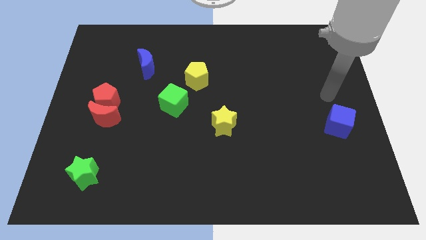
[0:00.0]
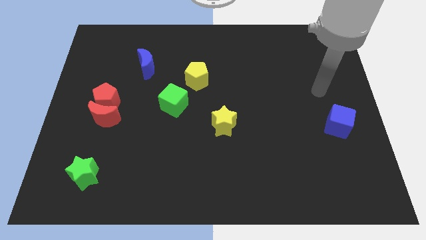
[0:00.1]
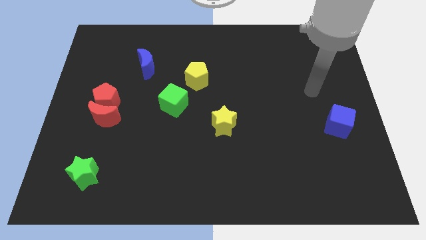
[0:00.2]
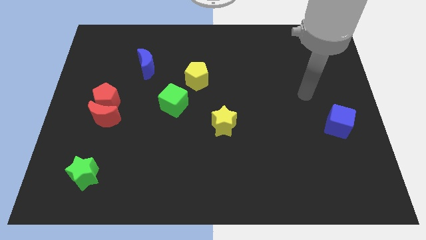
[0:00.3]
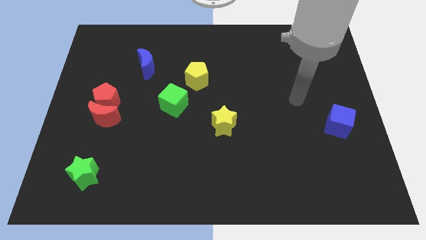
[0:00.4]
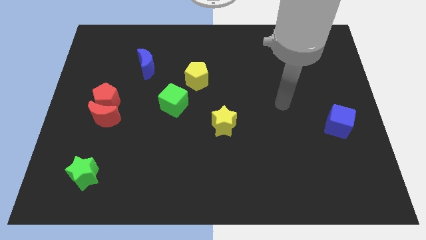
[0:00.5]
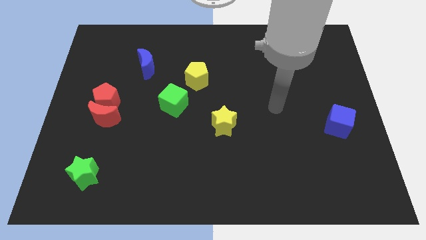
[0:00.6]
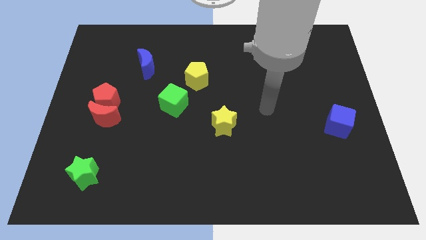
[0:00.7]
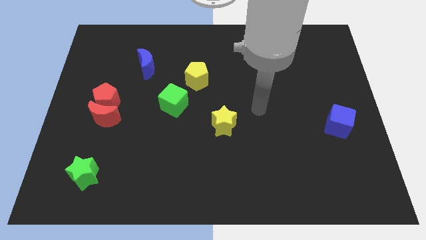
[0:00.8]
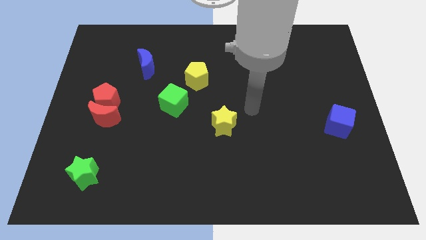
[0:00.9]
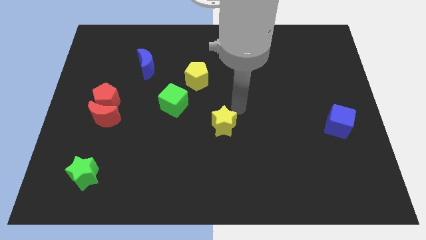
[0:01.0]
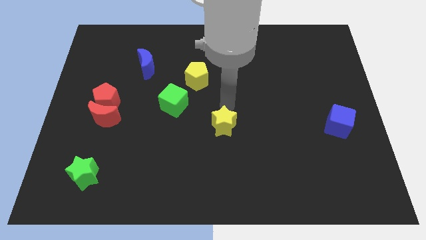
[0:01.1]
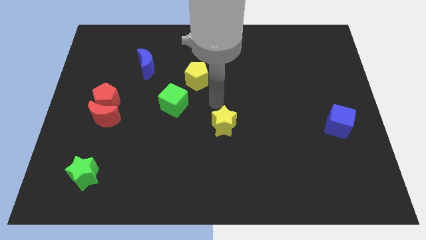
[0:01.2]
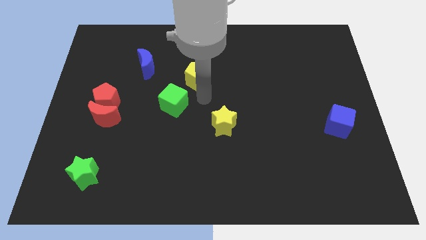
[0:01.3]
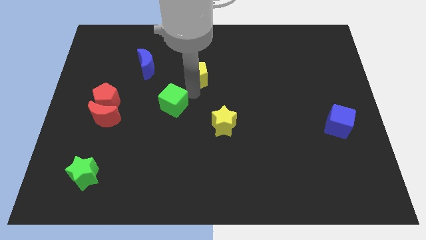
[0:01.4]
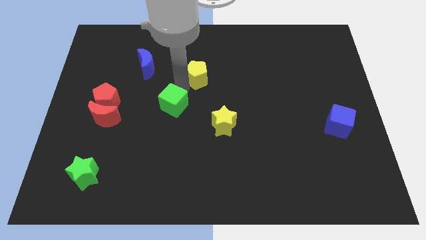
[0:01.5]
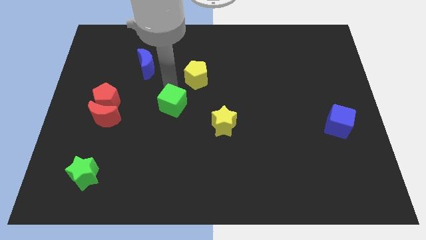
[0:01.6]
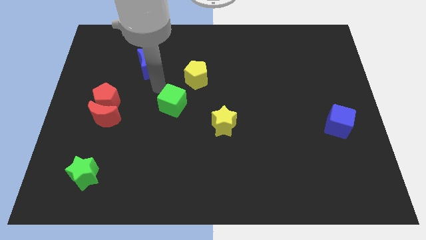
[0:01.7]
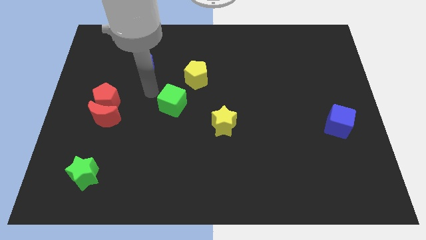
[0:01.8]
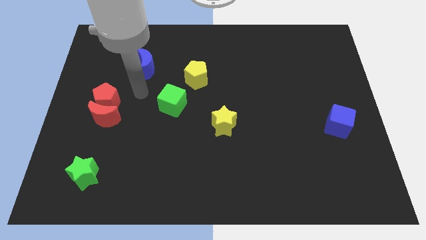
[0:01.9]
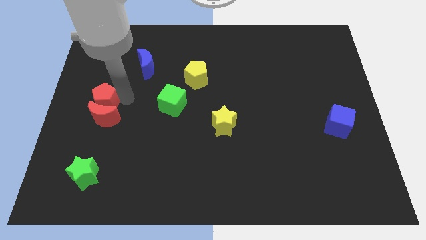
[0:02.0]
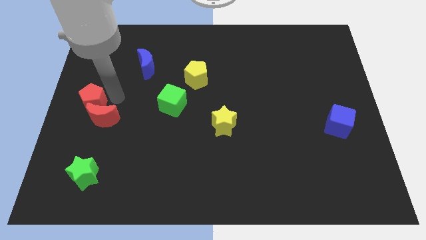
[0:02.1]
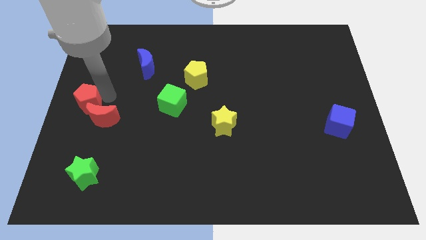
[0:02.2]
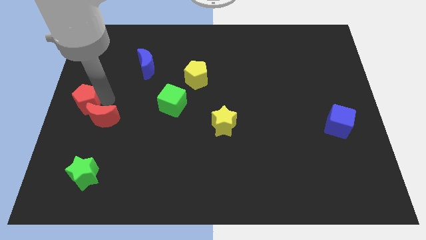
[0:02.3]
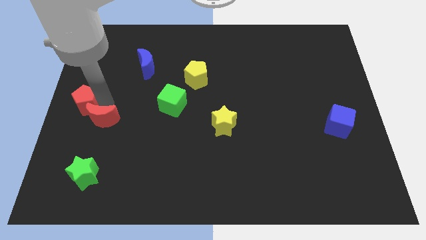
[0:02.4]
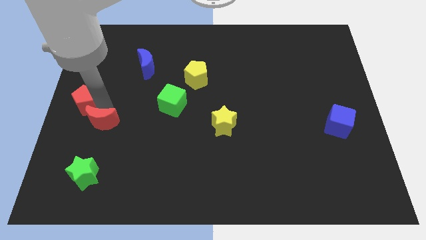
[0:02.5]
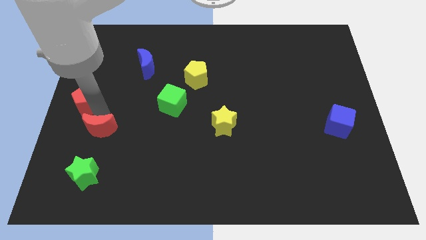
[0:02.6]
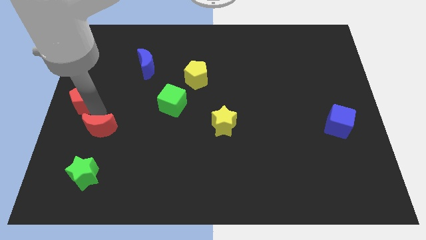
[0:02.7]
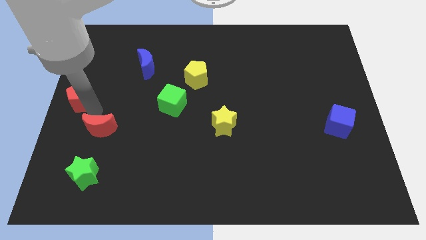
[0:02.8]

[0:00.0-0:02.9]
pull the red moon apart from the red pentagon

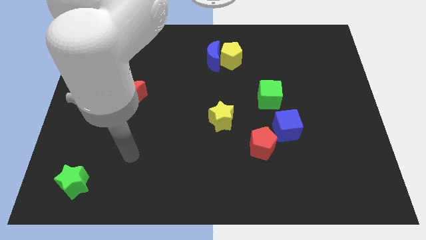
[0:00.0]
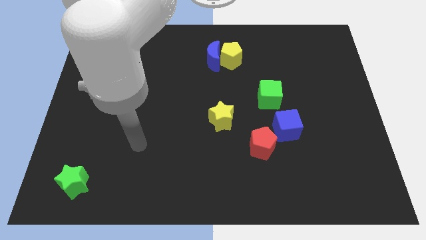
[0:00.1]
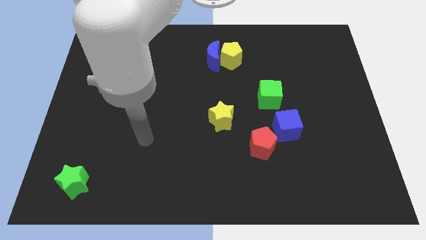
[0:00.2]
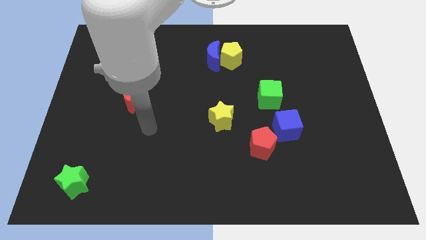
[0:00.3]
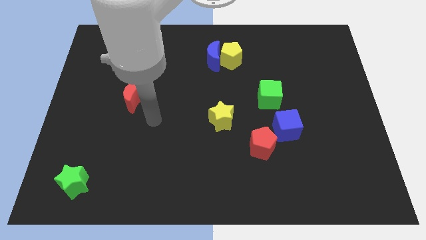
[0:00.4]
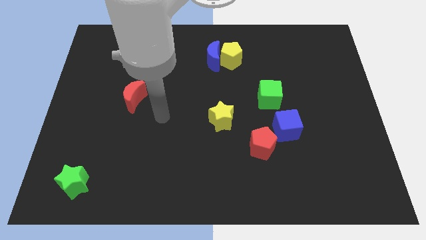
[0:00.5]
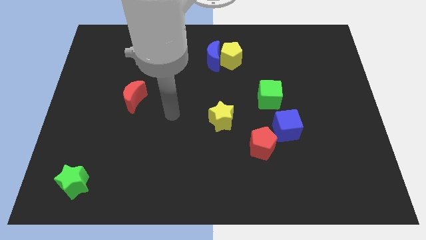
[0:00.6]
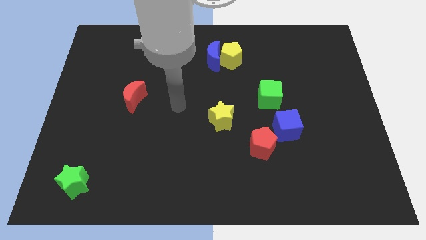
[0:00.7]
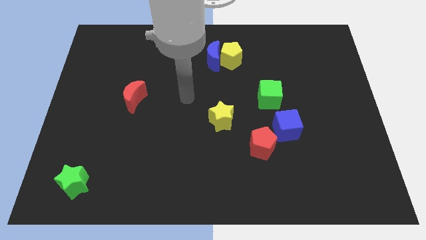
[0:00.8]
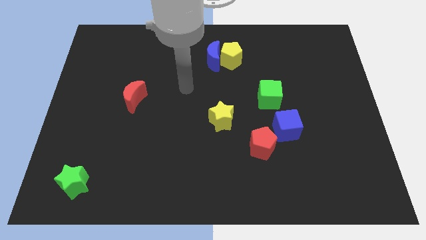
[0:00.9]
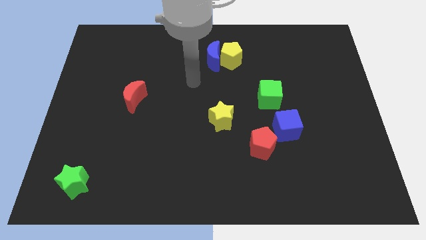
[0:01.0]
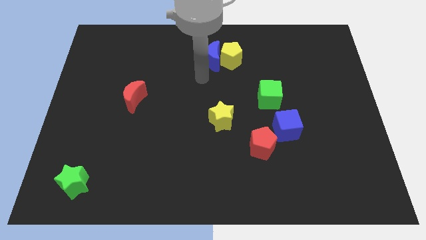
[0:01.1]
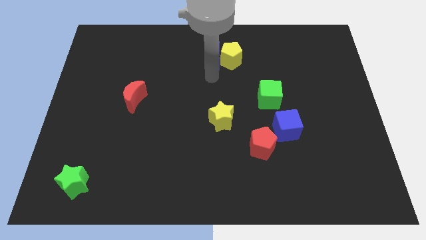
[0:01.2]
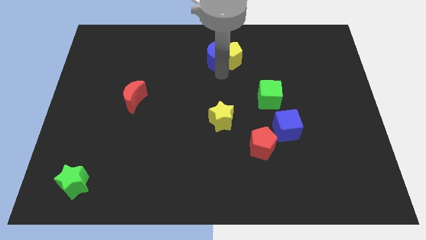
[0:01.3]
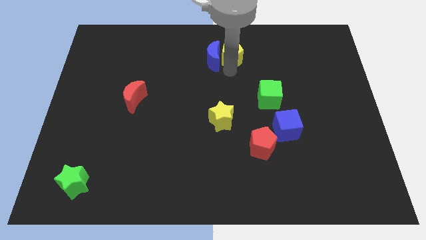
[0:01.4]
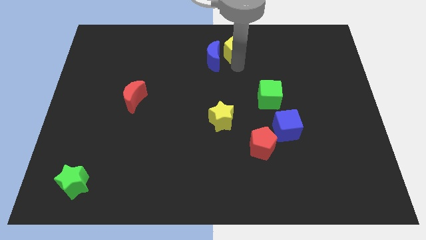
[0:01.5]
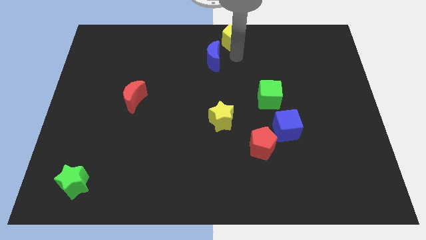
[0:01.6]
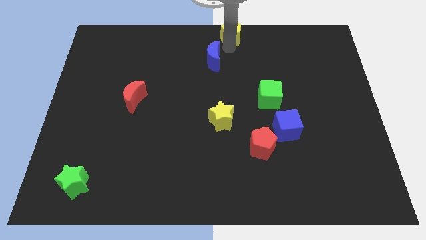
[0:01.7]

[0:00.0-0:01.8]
separate the blue moon from the yellow pentagon

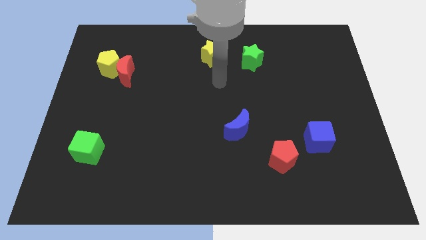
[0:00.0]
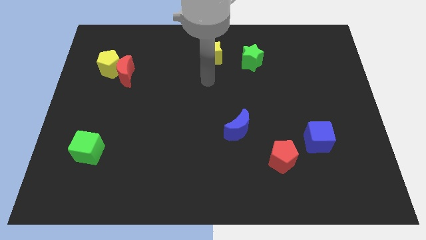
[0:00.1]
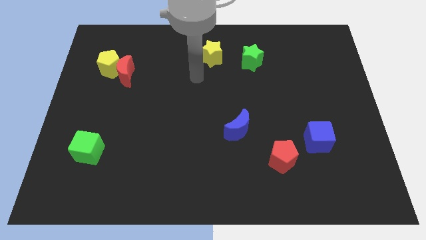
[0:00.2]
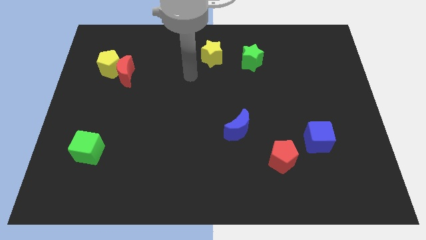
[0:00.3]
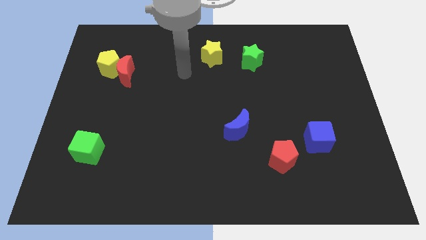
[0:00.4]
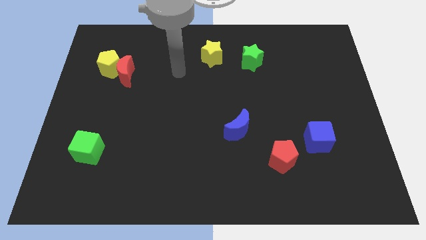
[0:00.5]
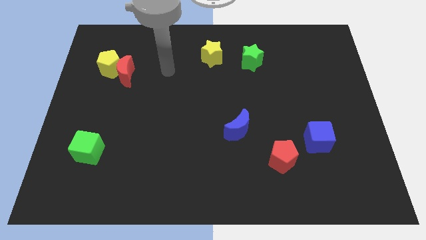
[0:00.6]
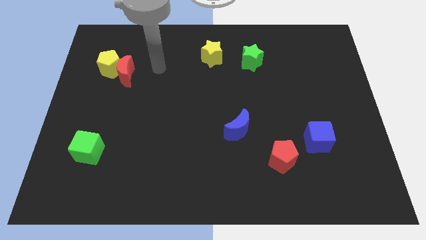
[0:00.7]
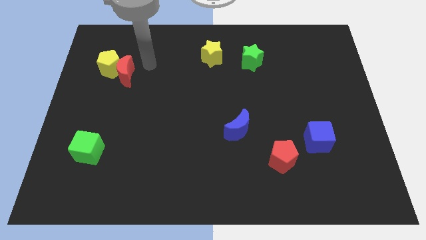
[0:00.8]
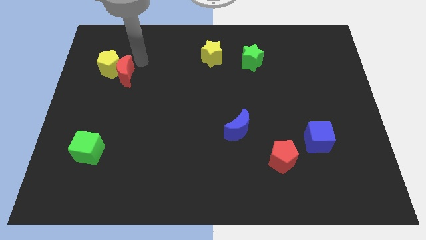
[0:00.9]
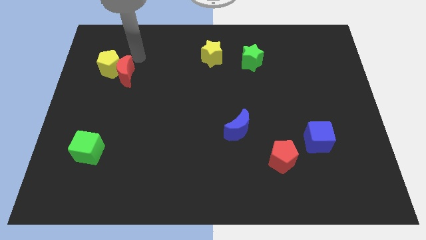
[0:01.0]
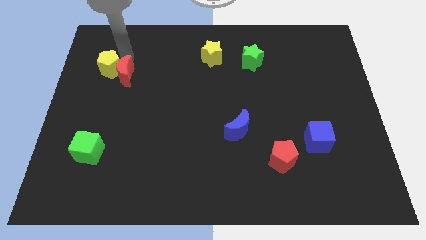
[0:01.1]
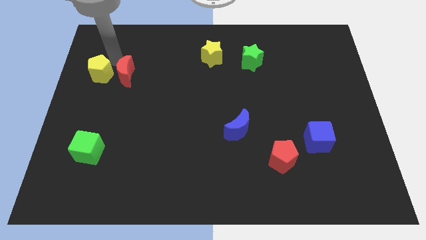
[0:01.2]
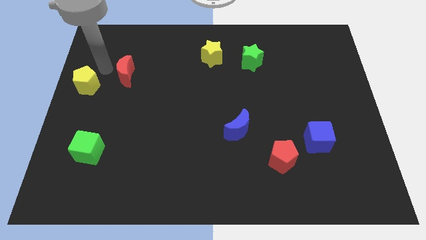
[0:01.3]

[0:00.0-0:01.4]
separate the red moon from the yellow pentagon

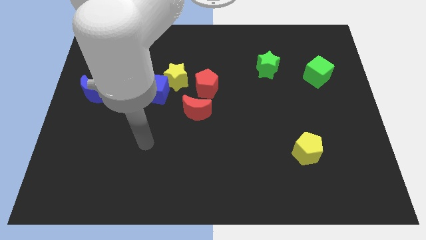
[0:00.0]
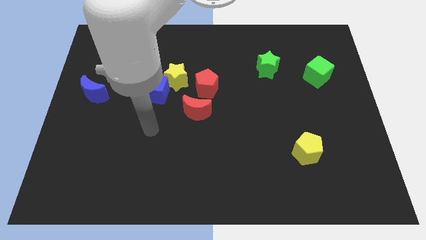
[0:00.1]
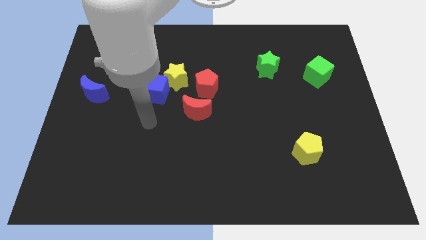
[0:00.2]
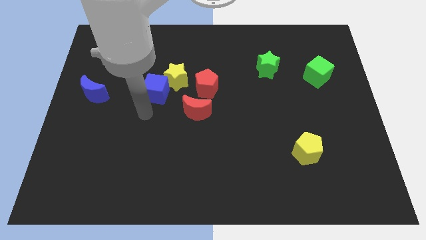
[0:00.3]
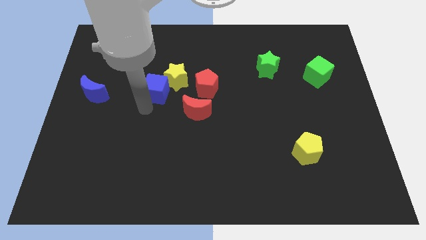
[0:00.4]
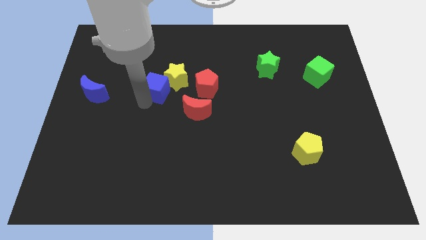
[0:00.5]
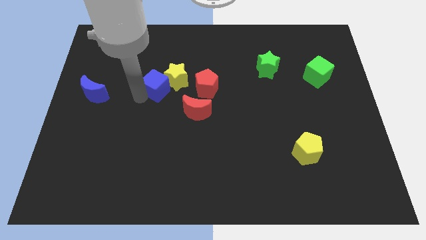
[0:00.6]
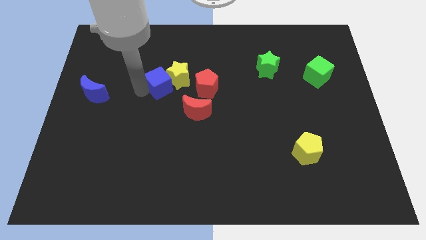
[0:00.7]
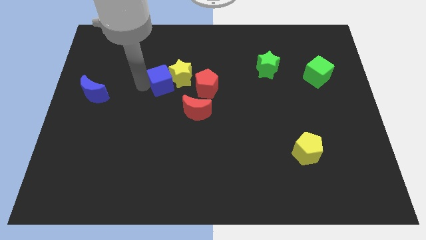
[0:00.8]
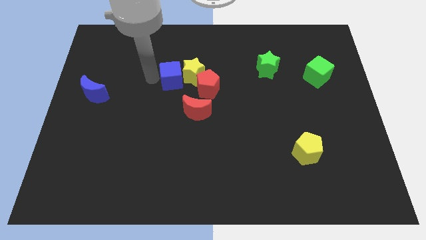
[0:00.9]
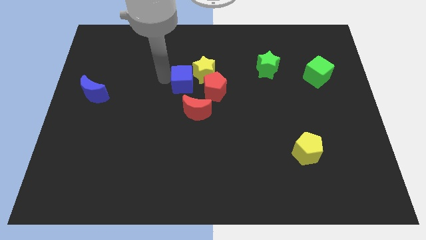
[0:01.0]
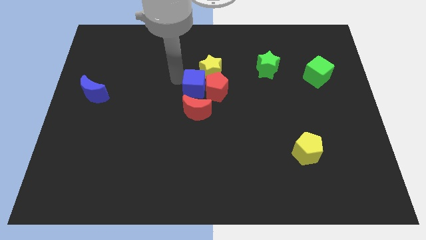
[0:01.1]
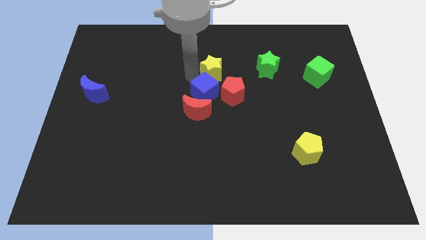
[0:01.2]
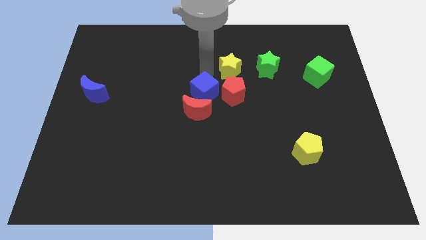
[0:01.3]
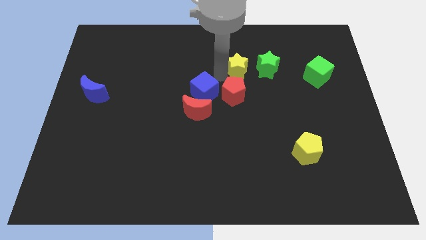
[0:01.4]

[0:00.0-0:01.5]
pull the blue cube apart from the yellow star

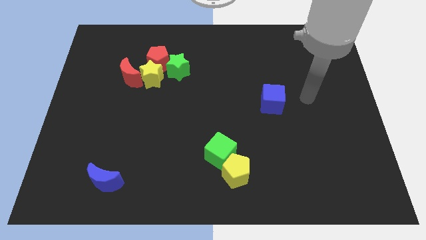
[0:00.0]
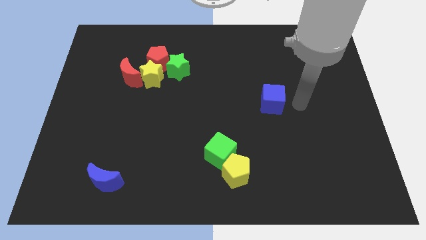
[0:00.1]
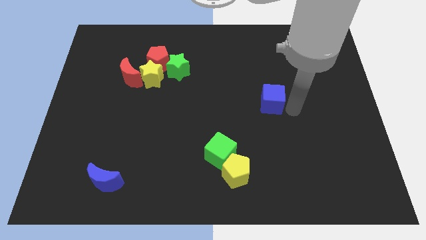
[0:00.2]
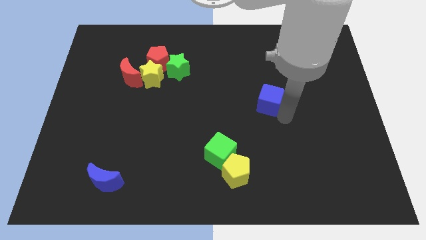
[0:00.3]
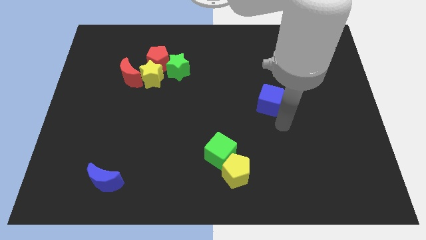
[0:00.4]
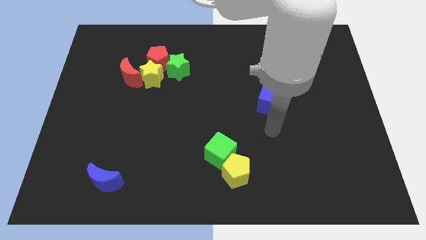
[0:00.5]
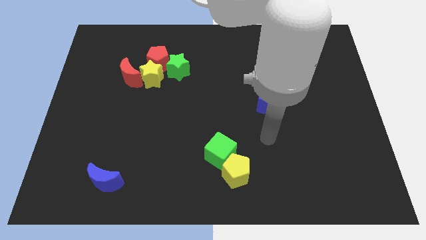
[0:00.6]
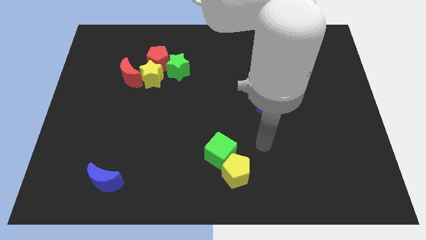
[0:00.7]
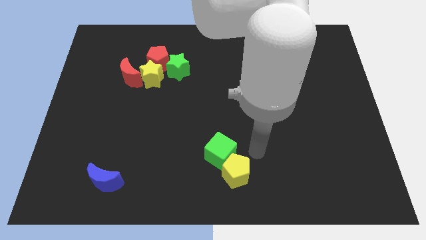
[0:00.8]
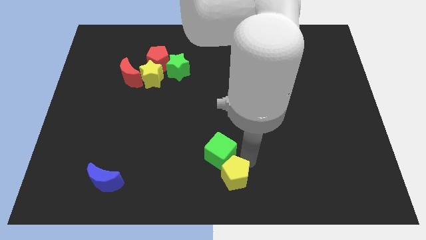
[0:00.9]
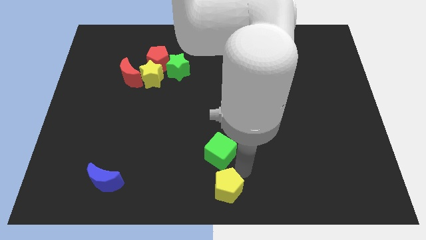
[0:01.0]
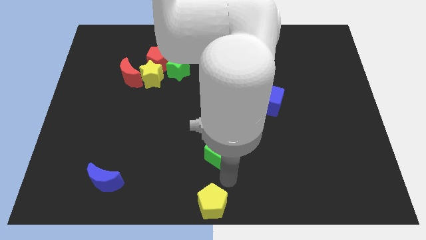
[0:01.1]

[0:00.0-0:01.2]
pull the green cube apart from the yellow pentagon

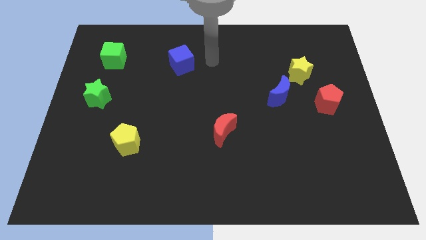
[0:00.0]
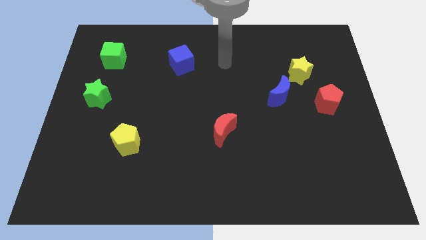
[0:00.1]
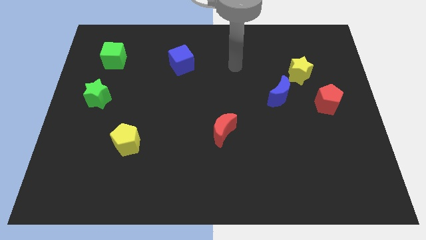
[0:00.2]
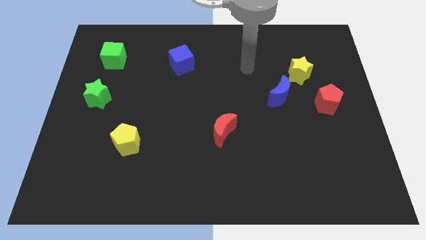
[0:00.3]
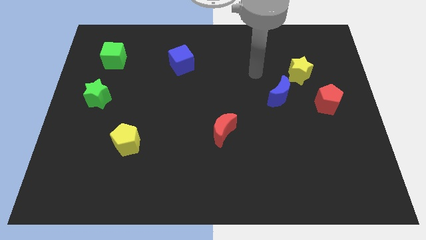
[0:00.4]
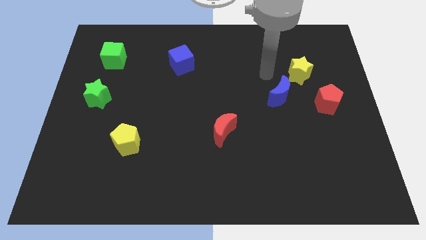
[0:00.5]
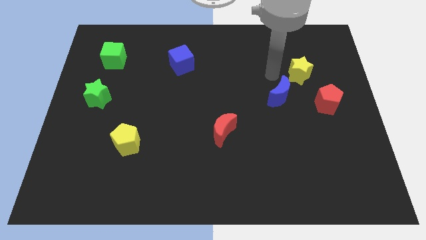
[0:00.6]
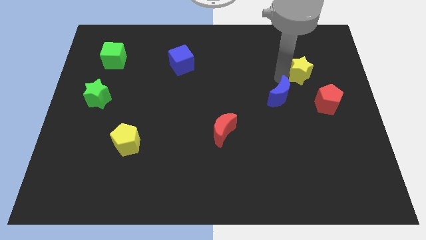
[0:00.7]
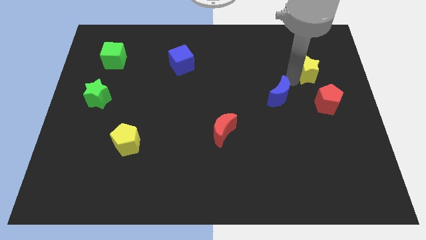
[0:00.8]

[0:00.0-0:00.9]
separate the blue moon from the yellow star
